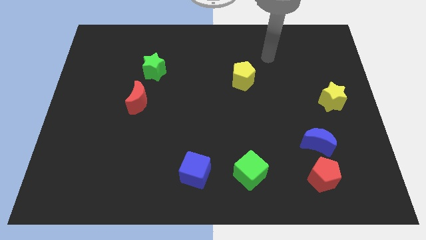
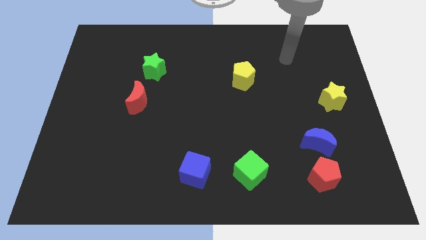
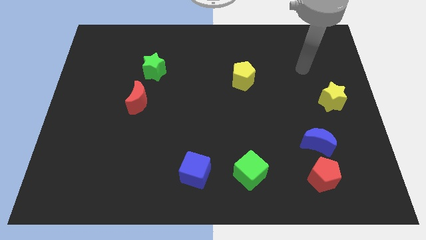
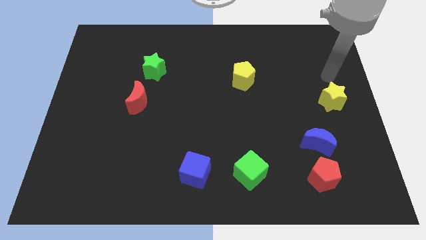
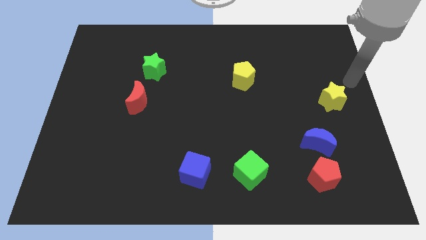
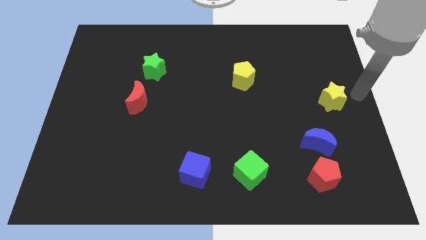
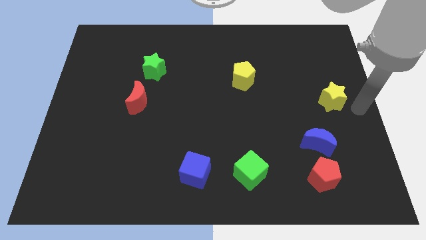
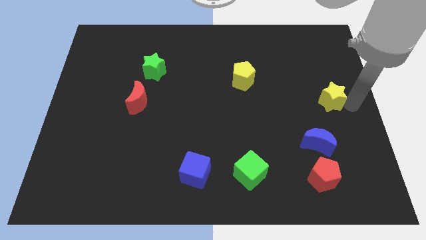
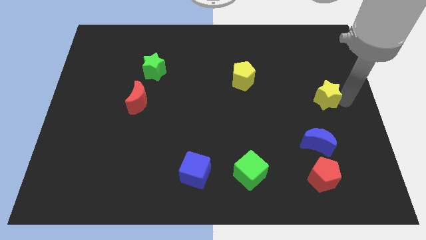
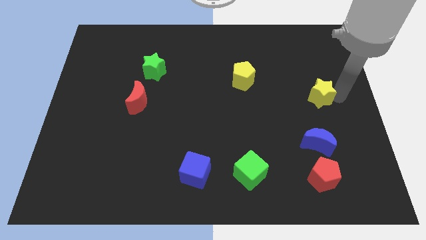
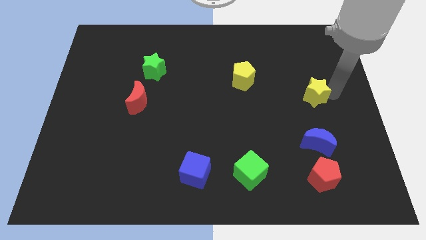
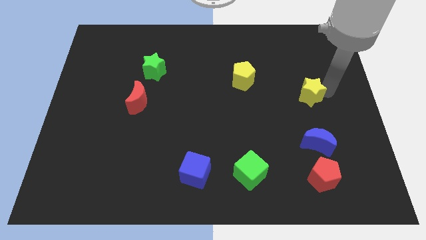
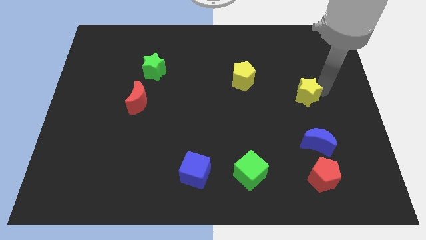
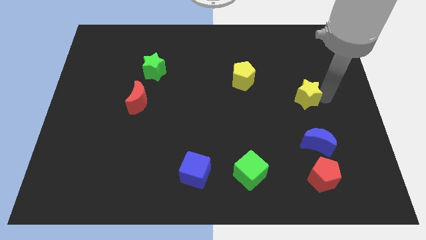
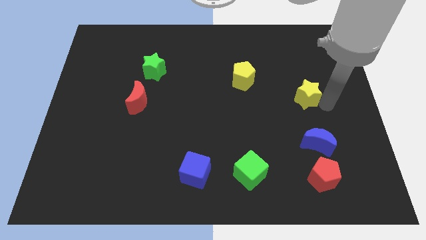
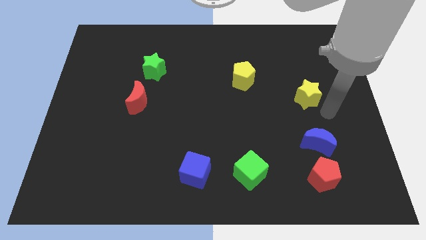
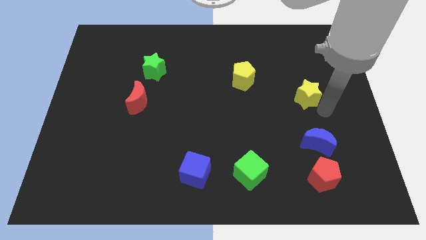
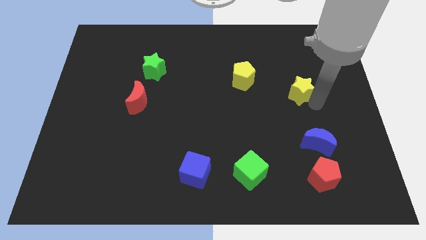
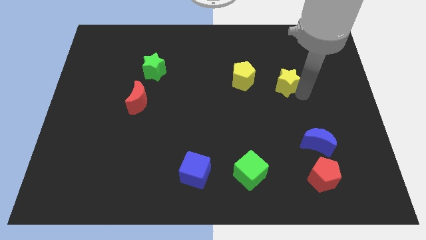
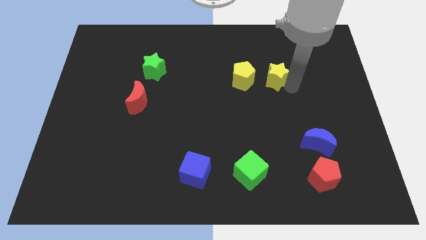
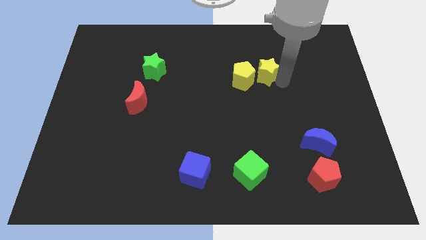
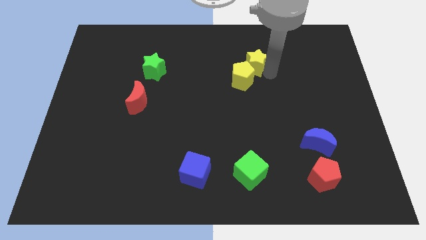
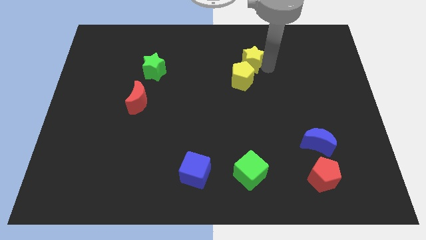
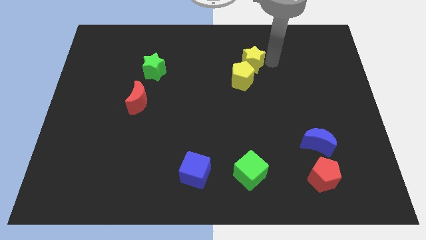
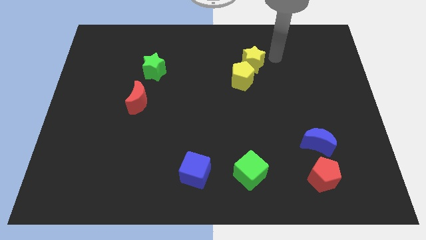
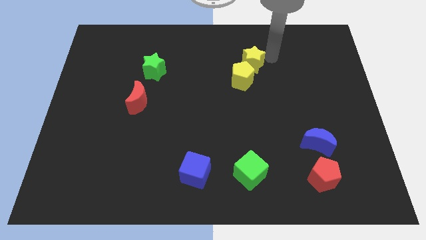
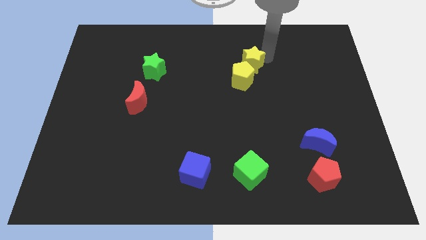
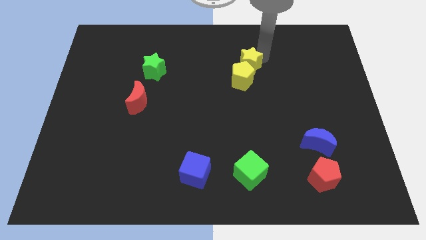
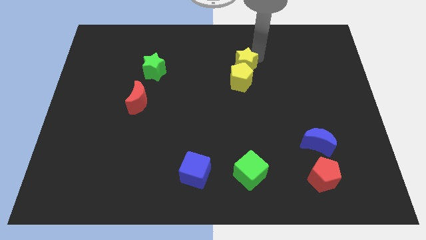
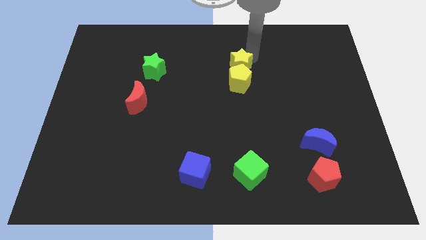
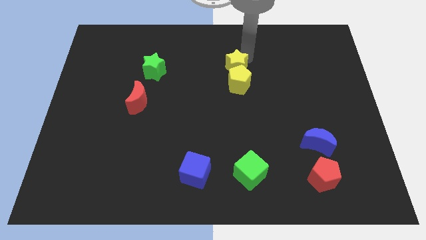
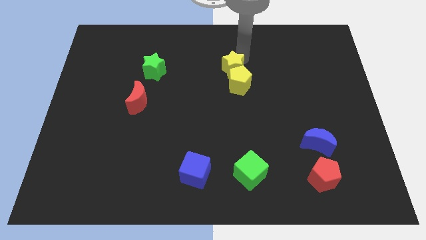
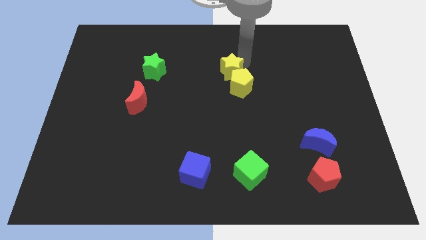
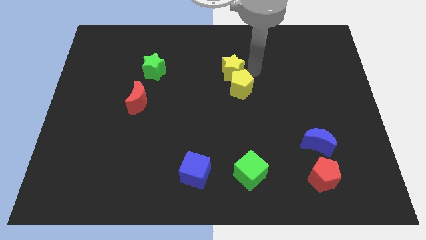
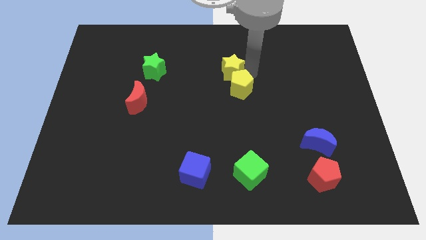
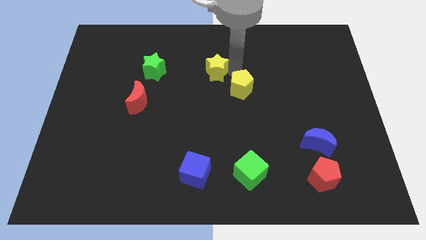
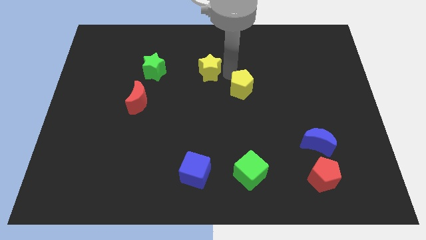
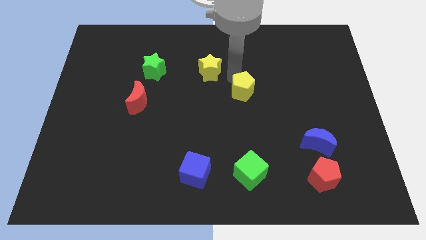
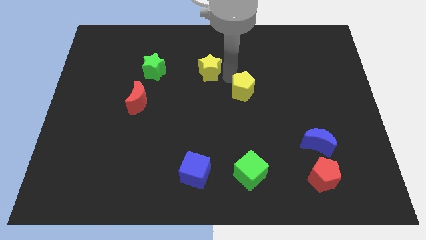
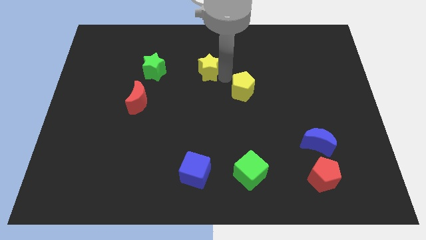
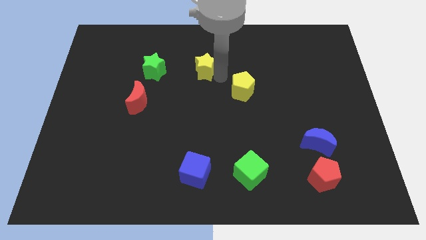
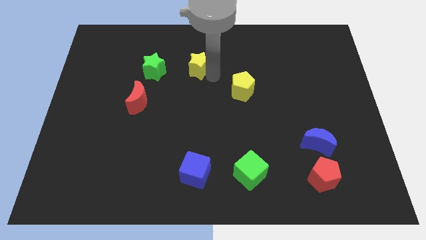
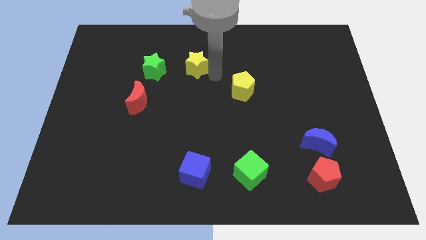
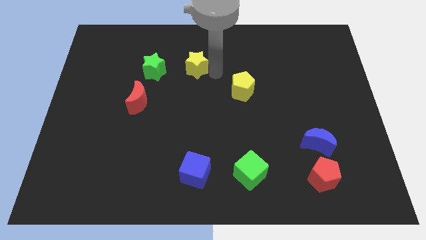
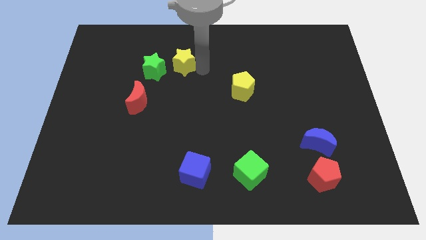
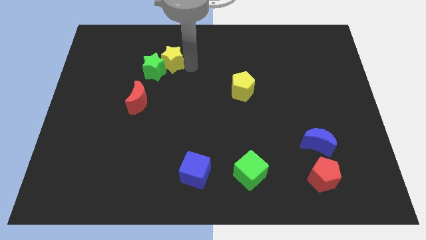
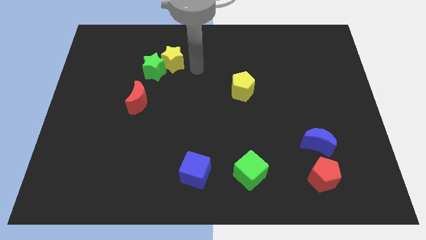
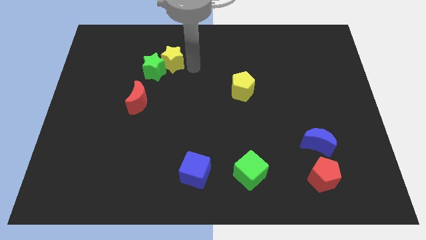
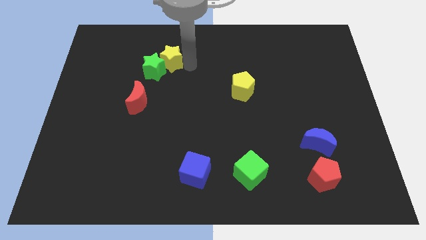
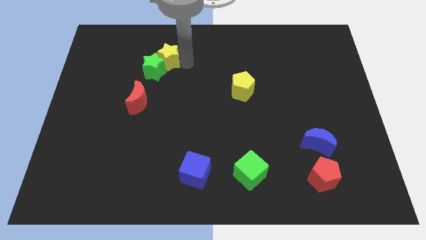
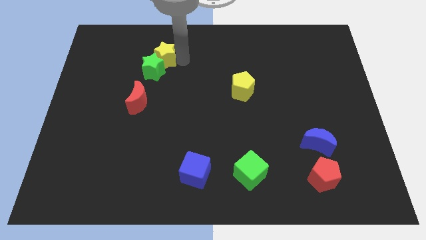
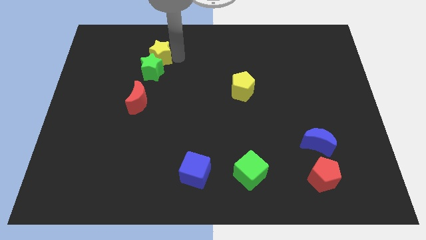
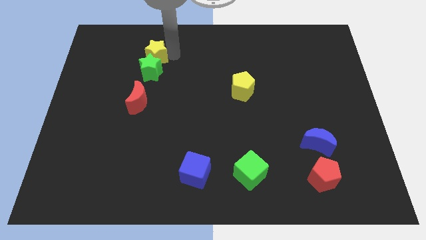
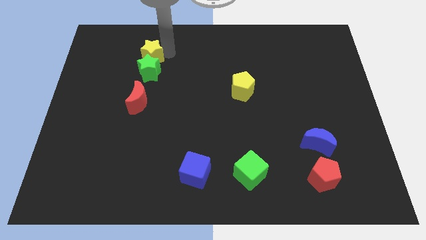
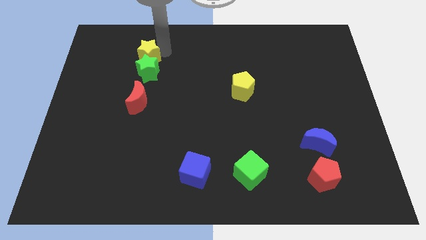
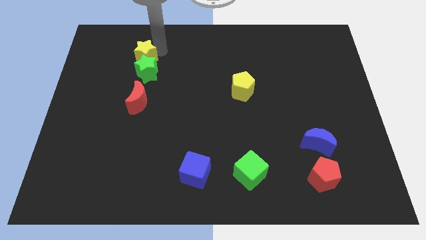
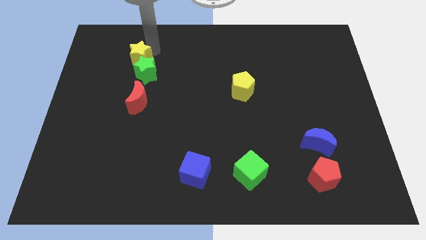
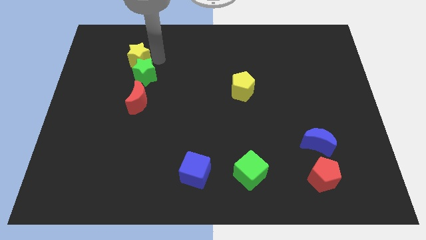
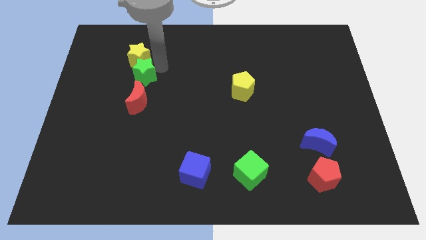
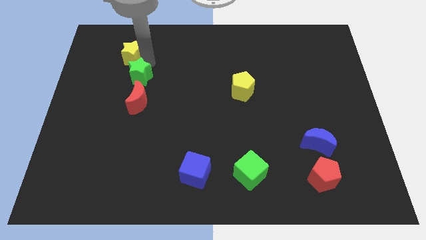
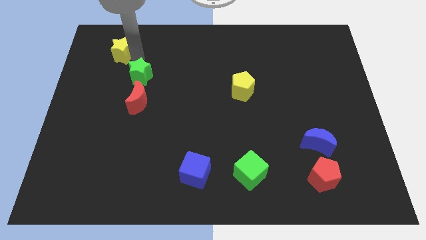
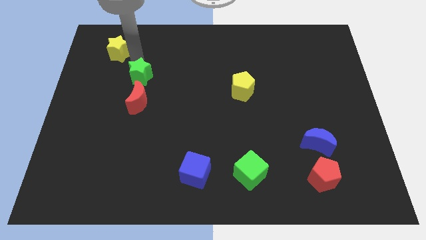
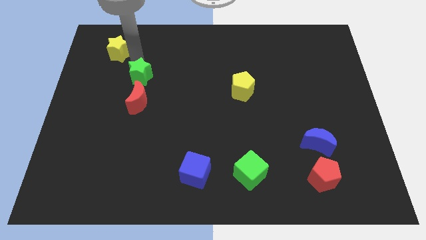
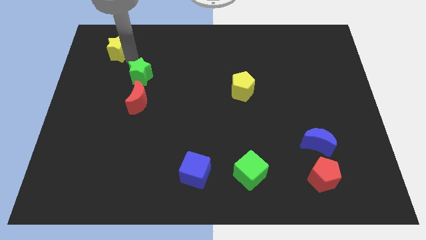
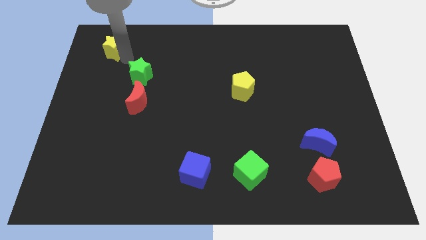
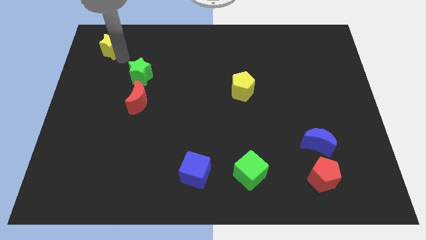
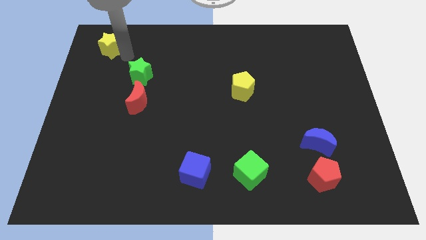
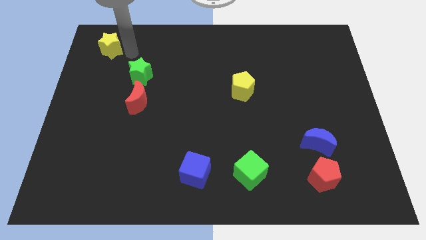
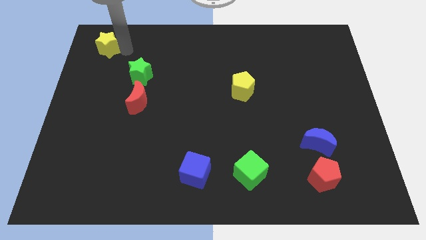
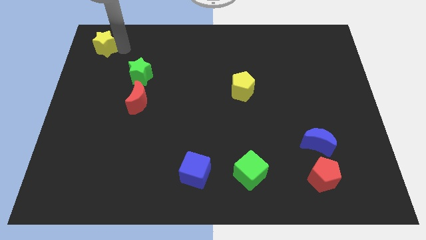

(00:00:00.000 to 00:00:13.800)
push the yellow star to the top left of the board
